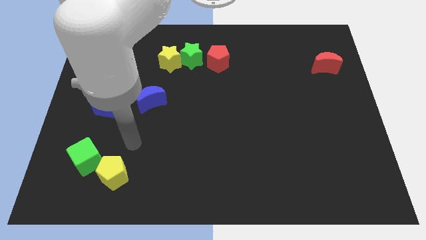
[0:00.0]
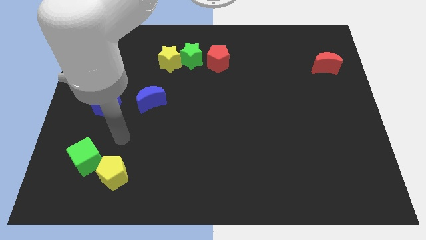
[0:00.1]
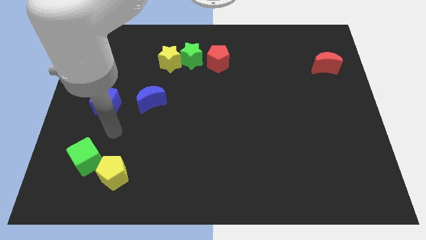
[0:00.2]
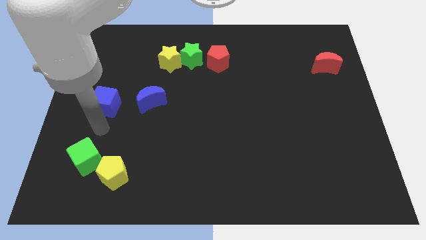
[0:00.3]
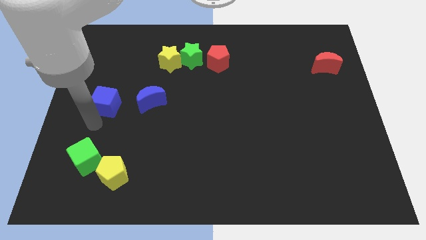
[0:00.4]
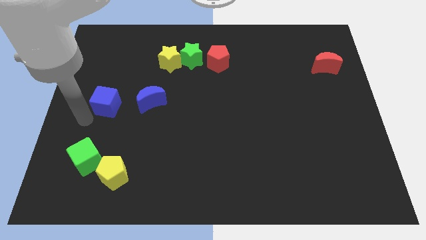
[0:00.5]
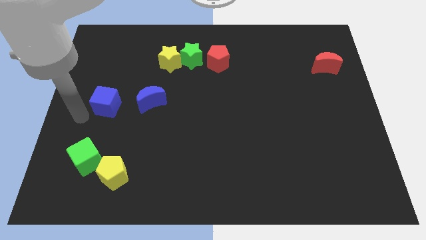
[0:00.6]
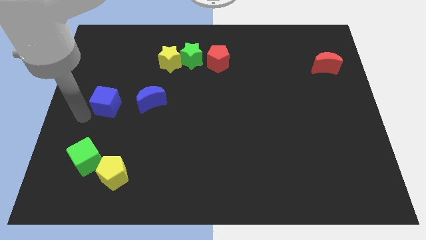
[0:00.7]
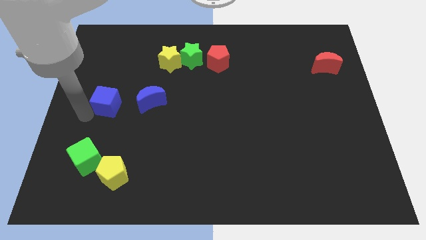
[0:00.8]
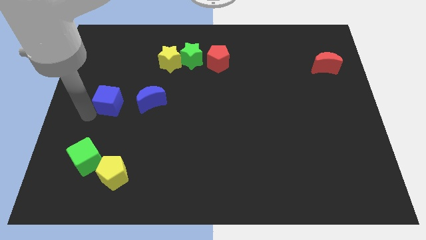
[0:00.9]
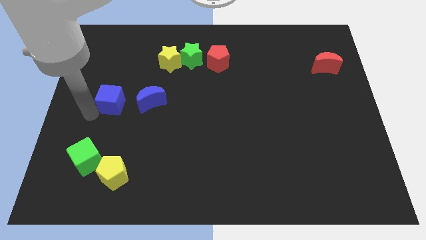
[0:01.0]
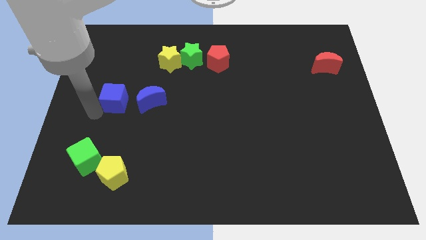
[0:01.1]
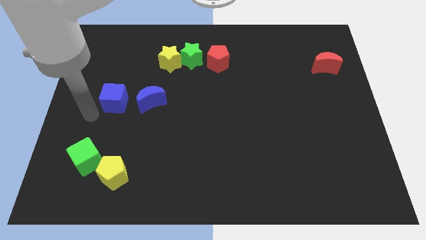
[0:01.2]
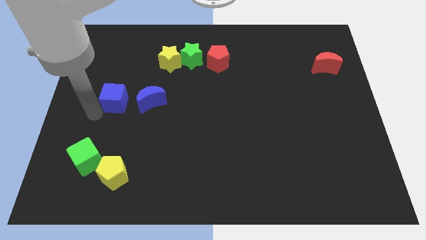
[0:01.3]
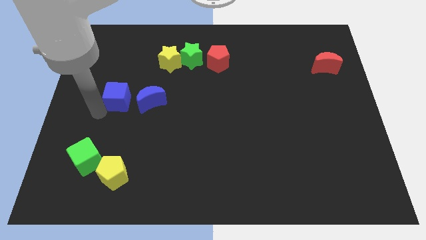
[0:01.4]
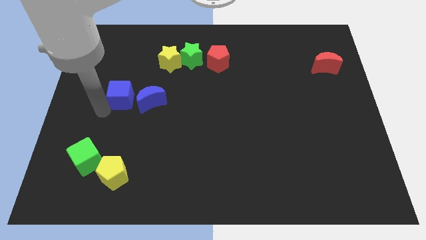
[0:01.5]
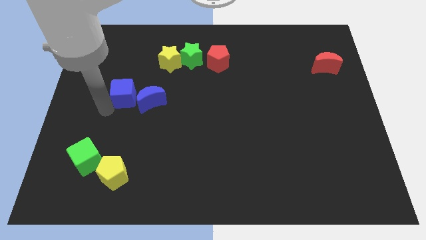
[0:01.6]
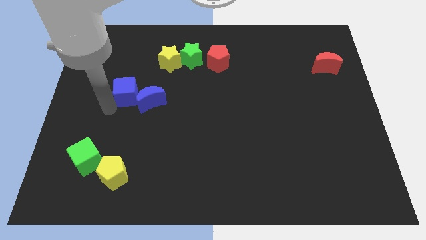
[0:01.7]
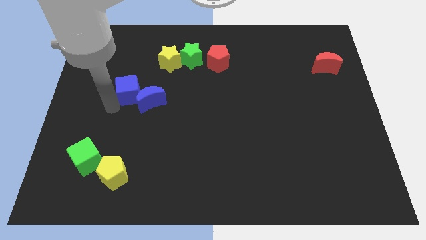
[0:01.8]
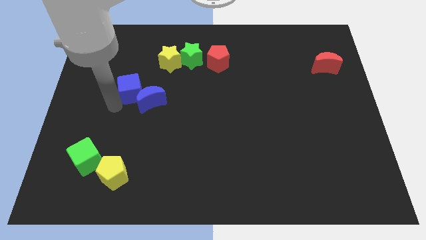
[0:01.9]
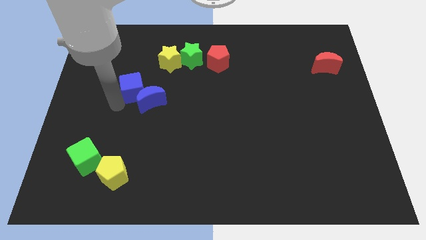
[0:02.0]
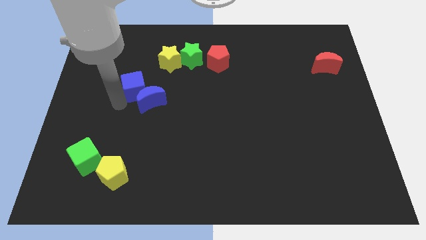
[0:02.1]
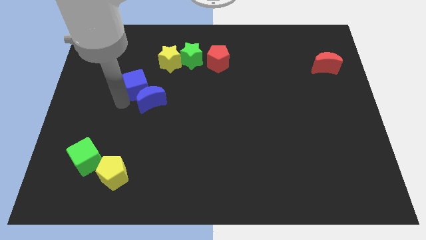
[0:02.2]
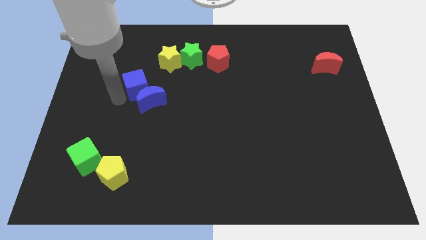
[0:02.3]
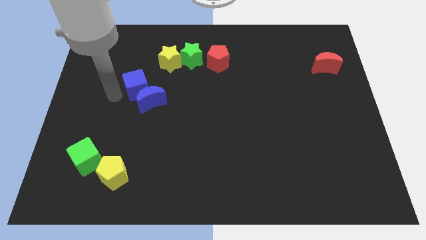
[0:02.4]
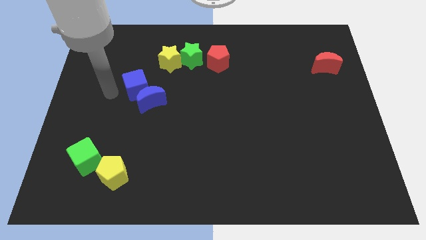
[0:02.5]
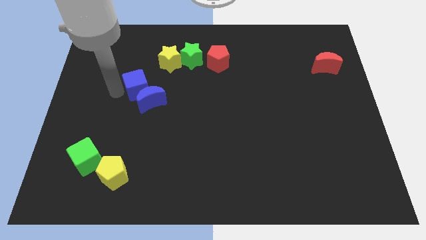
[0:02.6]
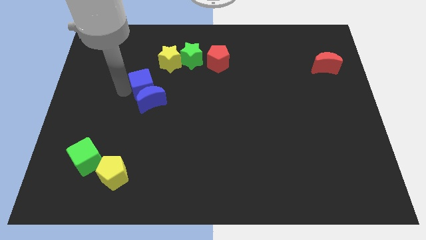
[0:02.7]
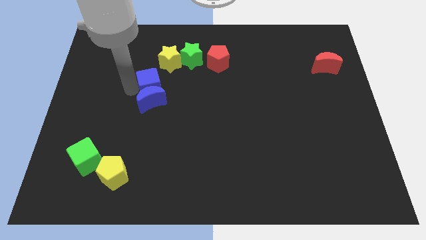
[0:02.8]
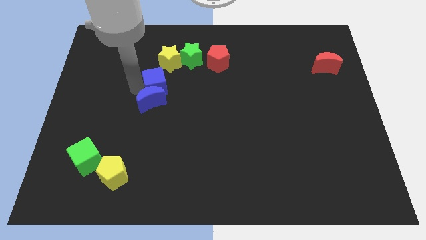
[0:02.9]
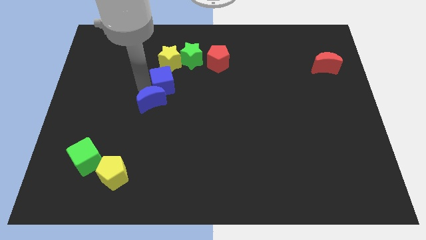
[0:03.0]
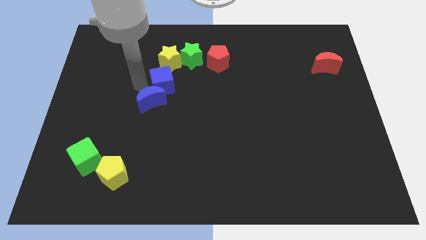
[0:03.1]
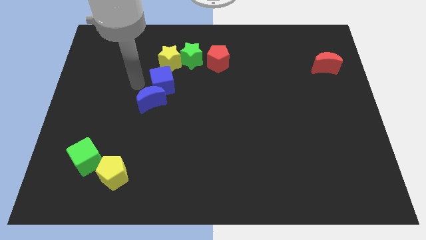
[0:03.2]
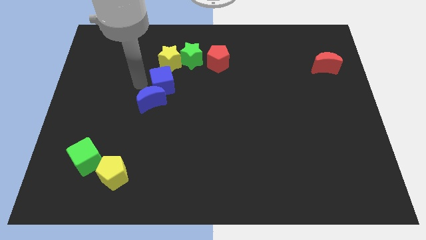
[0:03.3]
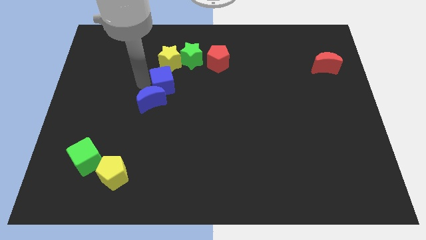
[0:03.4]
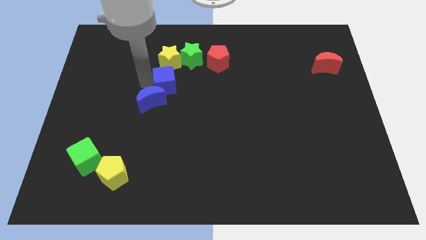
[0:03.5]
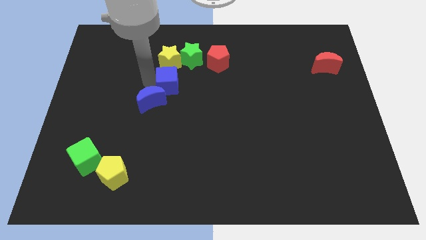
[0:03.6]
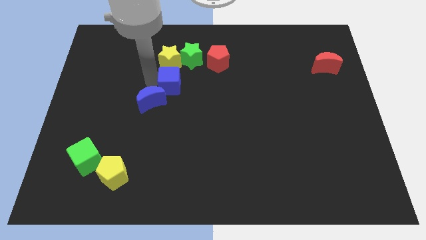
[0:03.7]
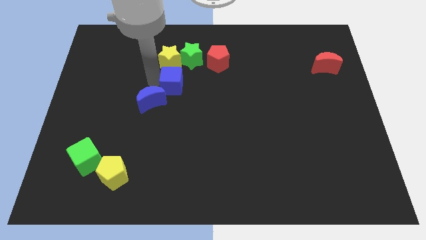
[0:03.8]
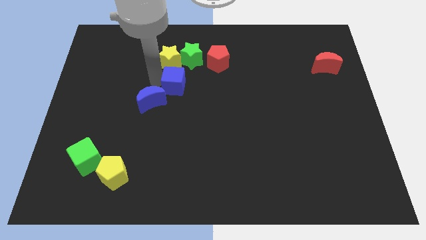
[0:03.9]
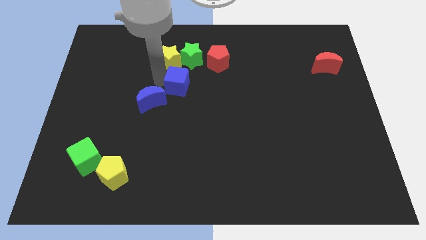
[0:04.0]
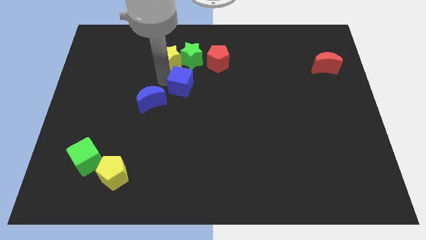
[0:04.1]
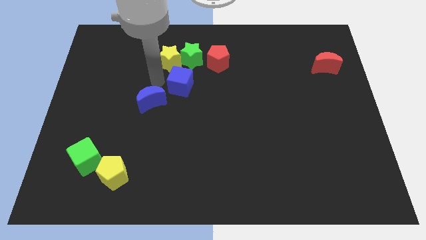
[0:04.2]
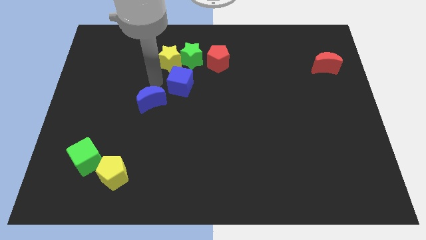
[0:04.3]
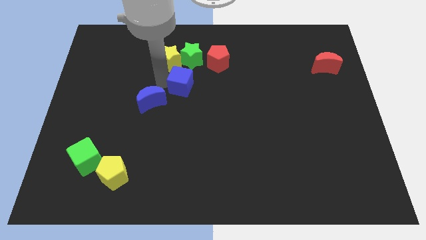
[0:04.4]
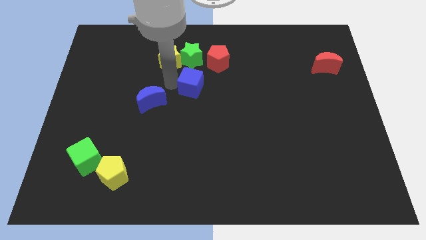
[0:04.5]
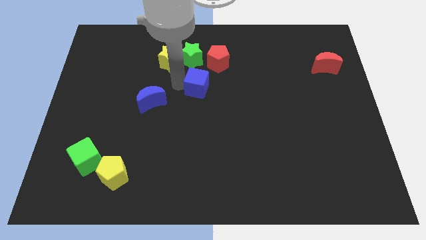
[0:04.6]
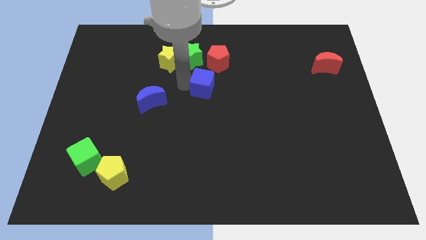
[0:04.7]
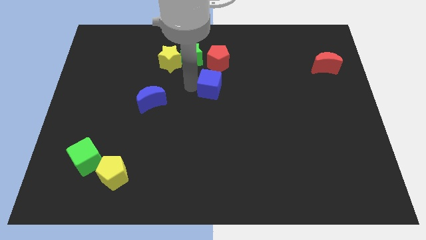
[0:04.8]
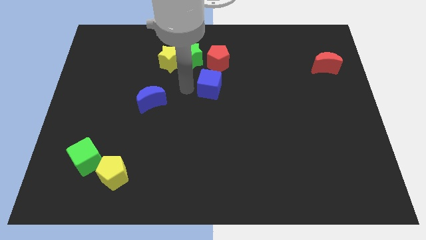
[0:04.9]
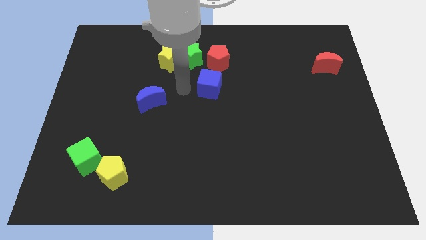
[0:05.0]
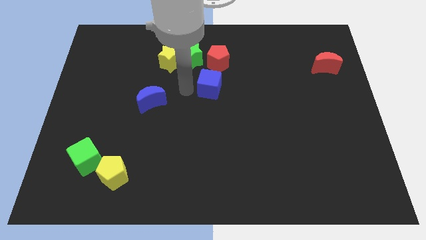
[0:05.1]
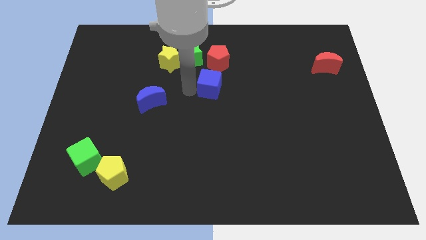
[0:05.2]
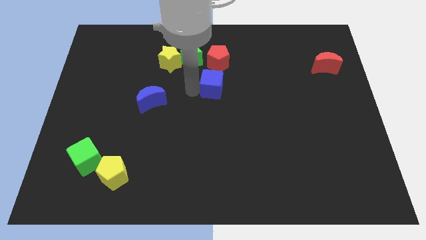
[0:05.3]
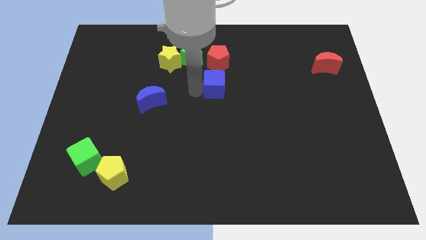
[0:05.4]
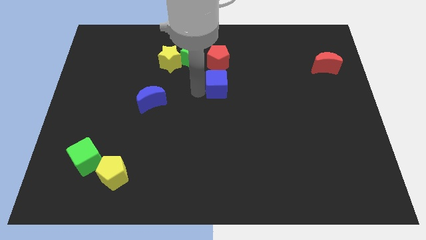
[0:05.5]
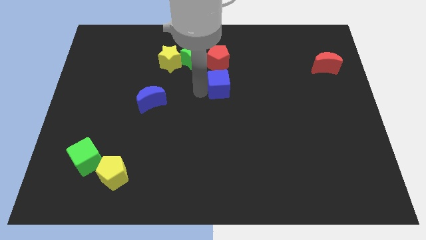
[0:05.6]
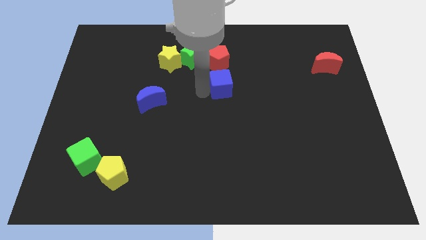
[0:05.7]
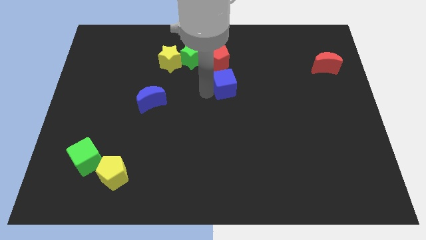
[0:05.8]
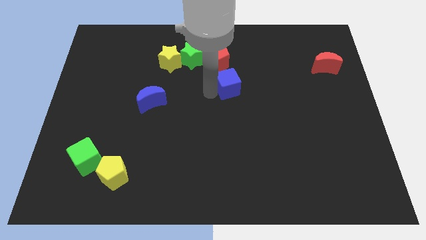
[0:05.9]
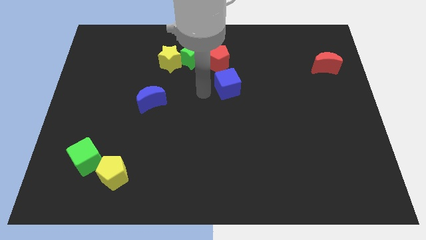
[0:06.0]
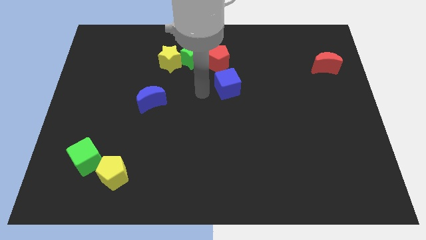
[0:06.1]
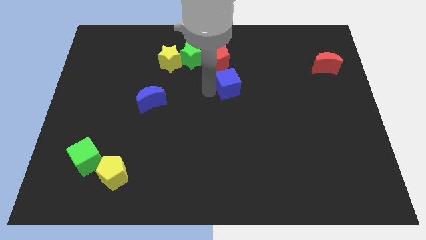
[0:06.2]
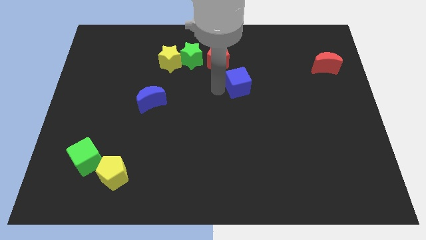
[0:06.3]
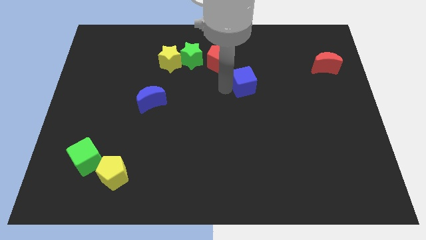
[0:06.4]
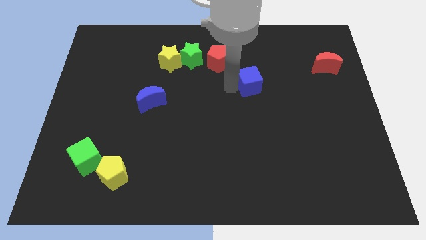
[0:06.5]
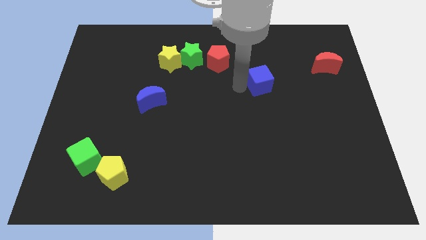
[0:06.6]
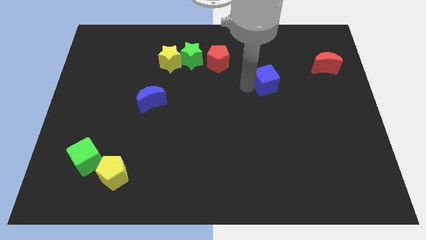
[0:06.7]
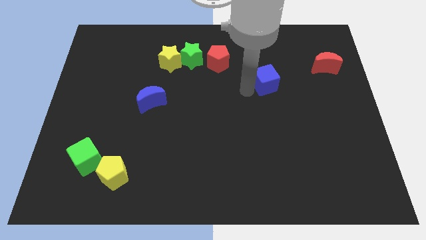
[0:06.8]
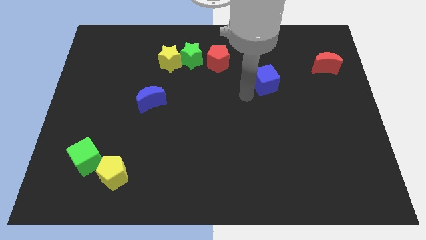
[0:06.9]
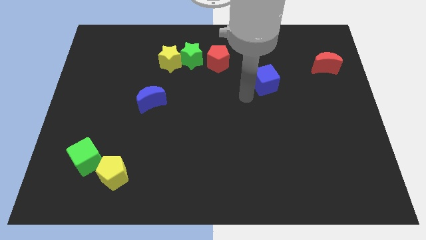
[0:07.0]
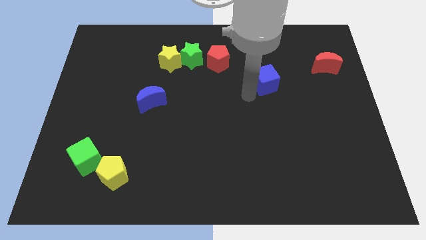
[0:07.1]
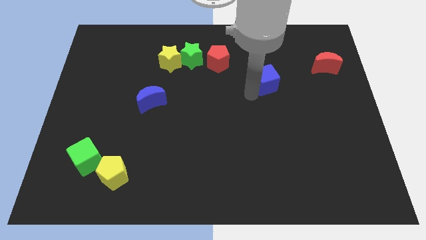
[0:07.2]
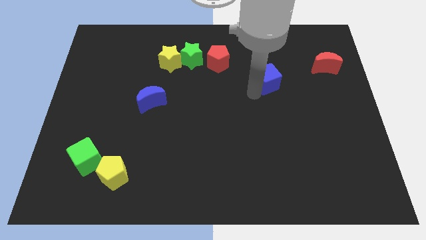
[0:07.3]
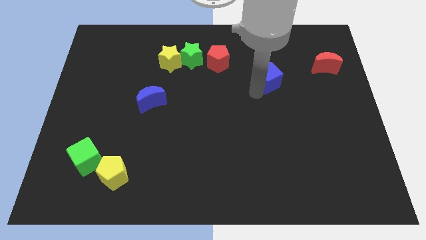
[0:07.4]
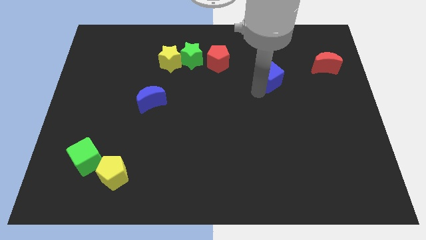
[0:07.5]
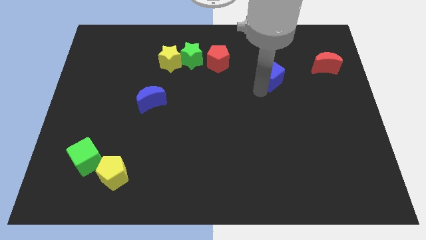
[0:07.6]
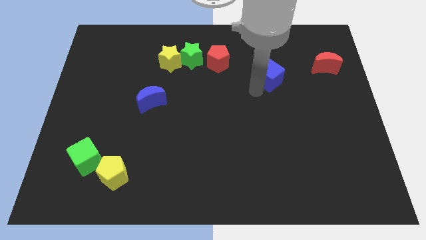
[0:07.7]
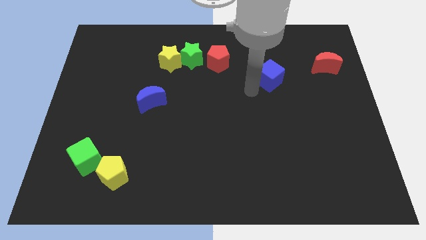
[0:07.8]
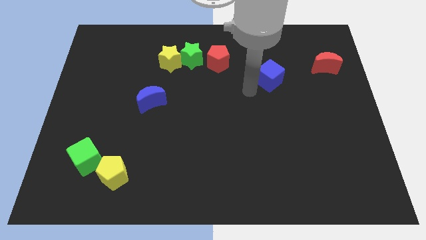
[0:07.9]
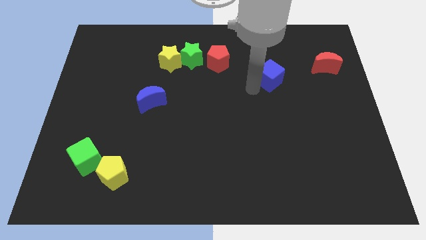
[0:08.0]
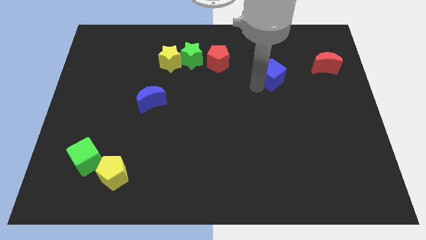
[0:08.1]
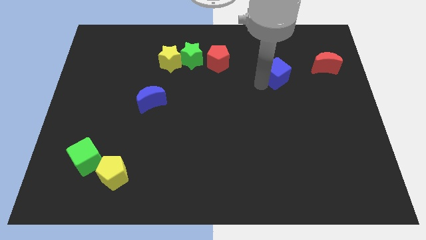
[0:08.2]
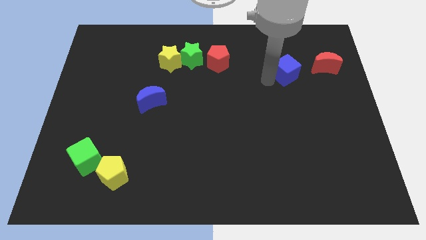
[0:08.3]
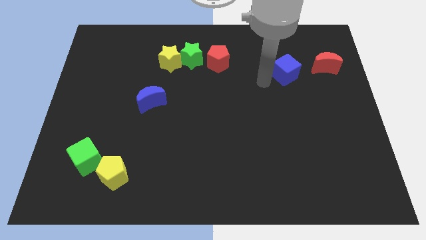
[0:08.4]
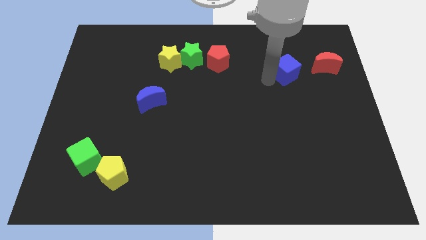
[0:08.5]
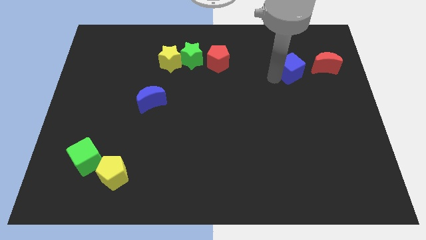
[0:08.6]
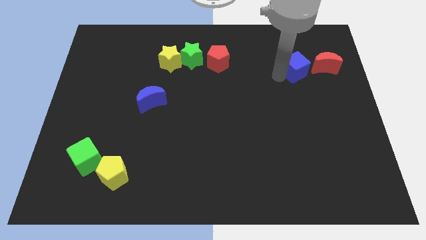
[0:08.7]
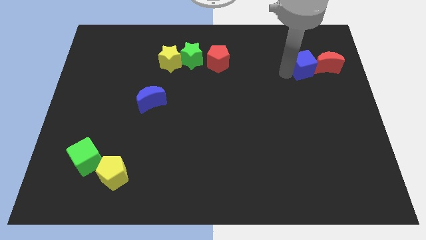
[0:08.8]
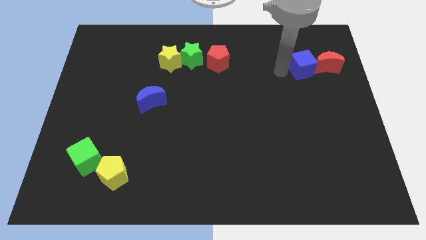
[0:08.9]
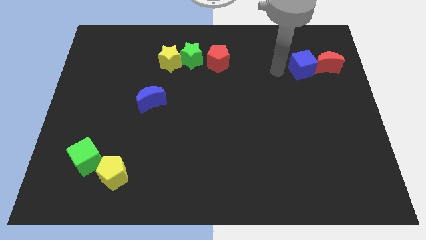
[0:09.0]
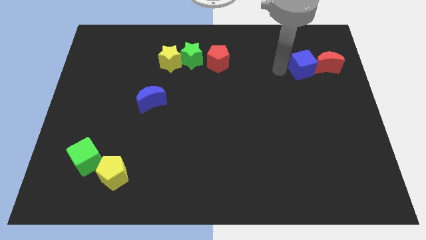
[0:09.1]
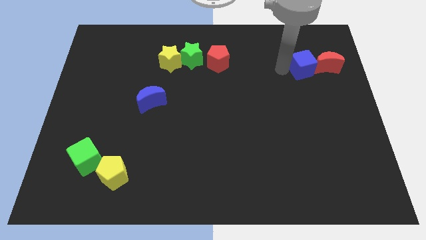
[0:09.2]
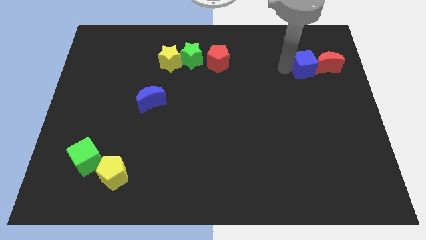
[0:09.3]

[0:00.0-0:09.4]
put the blue cube towards the red moon
